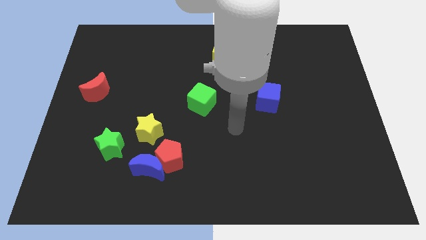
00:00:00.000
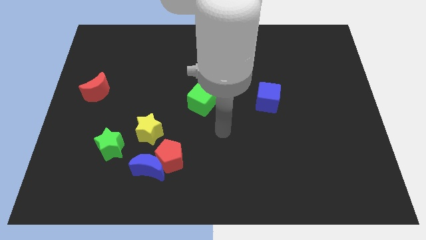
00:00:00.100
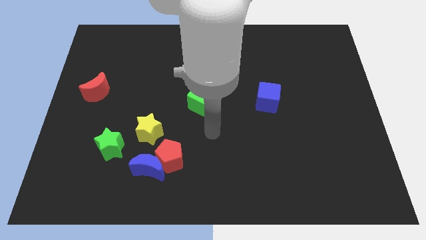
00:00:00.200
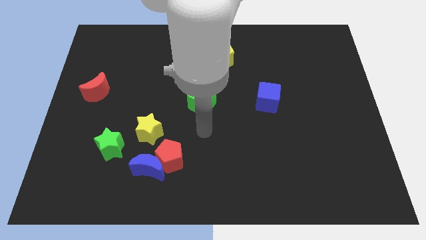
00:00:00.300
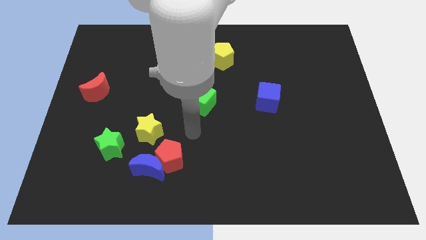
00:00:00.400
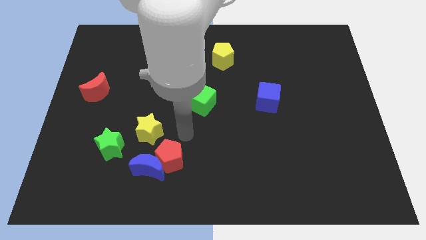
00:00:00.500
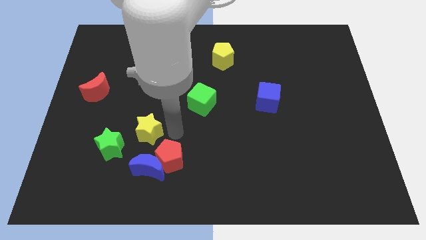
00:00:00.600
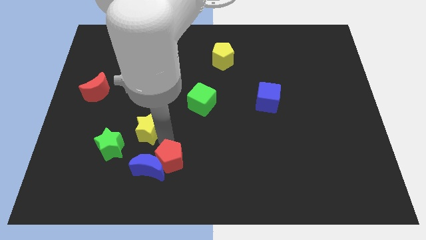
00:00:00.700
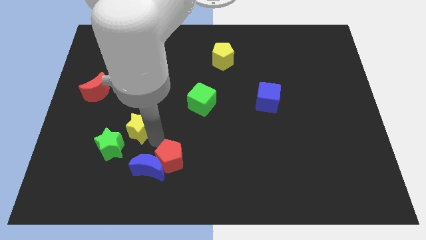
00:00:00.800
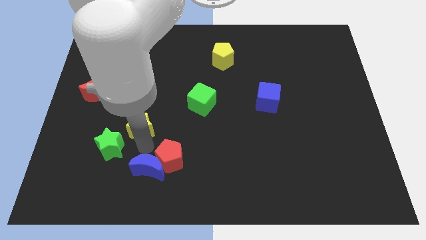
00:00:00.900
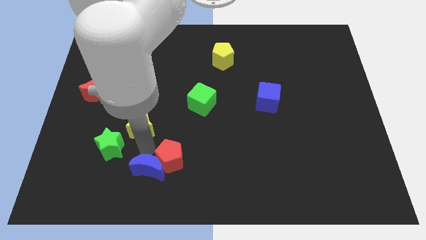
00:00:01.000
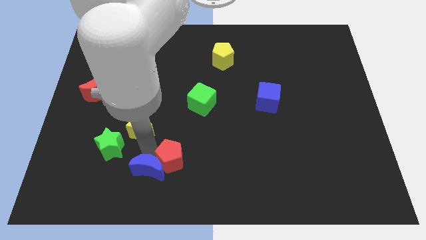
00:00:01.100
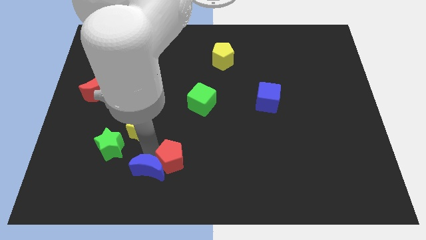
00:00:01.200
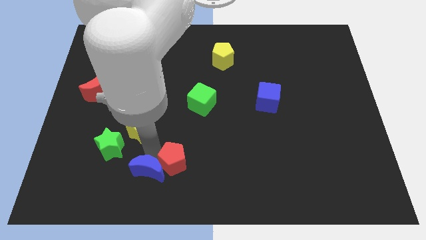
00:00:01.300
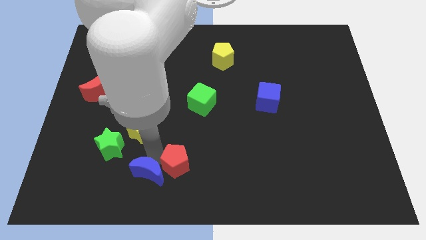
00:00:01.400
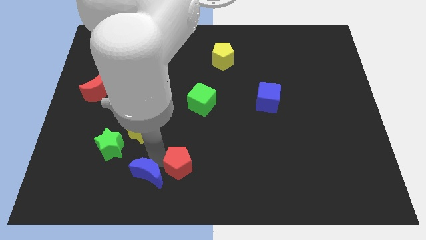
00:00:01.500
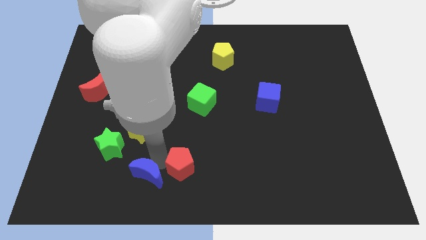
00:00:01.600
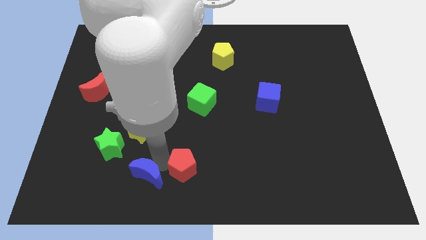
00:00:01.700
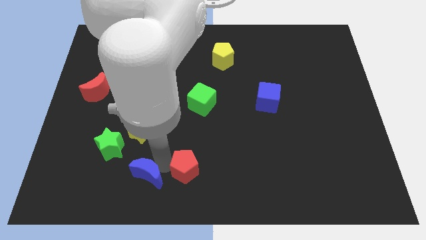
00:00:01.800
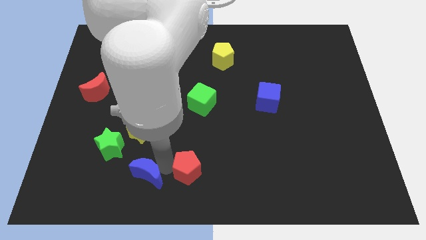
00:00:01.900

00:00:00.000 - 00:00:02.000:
move the red pentagon away from the blue moon and yellow star

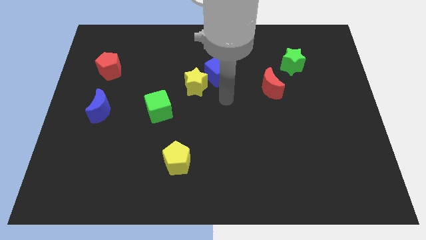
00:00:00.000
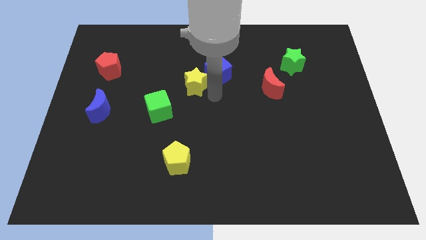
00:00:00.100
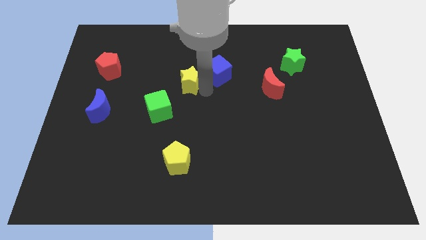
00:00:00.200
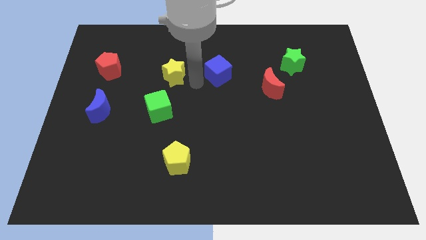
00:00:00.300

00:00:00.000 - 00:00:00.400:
separate the blue cube from the yellow star

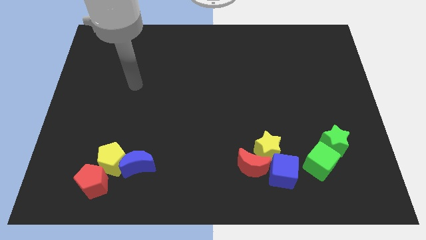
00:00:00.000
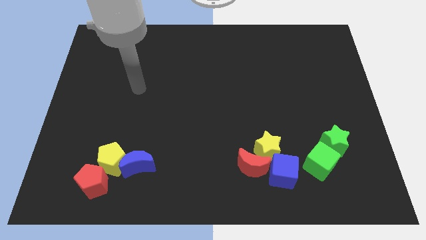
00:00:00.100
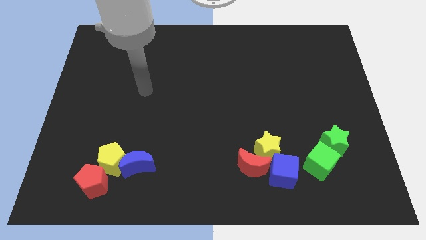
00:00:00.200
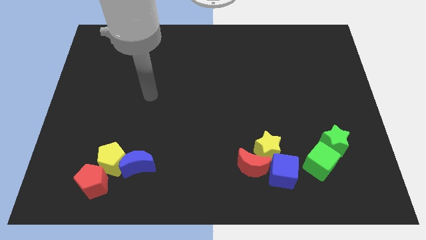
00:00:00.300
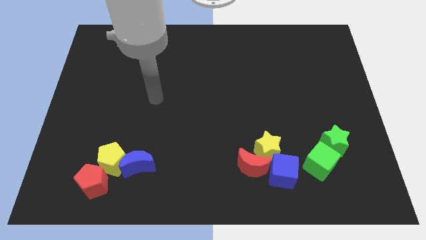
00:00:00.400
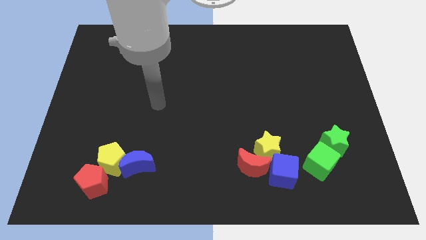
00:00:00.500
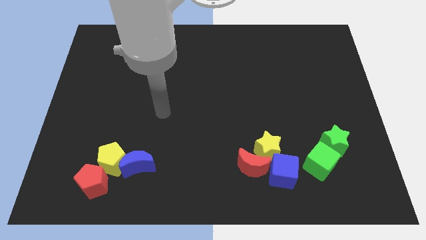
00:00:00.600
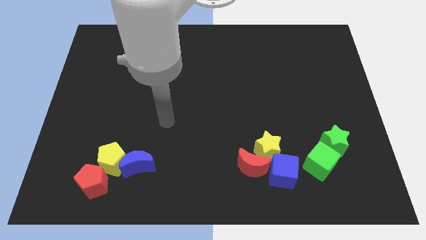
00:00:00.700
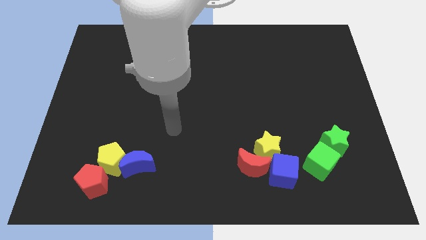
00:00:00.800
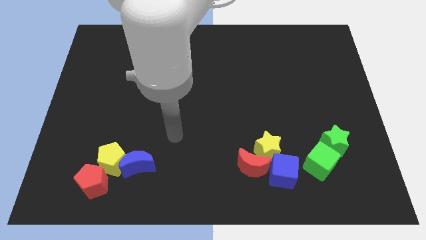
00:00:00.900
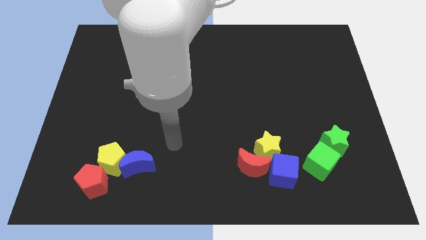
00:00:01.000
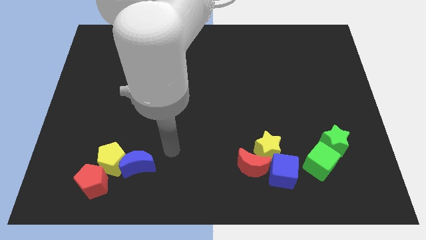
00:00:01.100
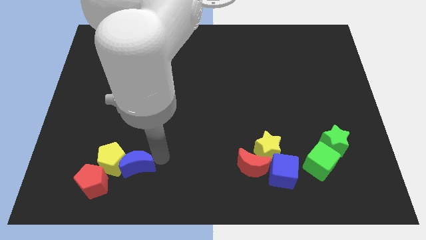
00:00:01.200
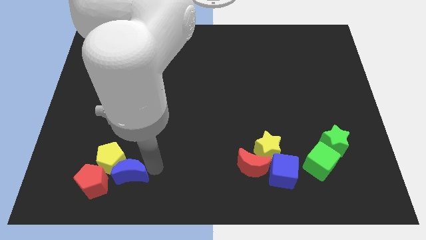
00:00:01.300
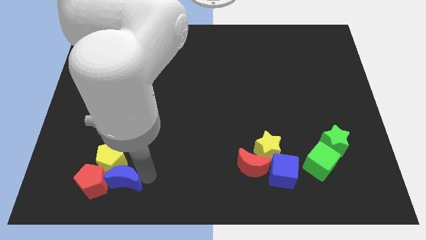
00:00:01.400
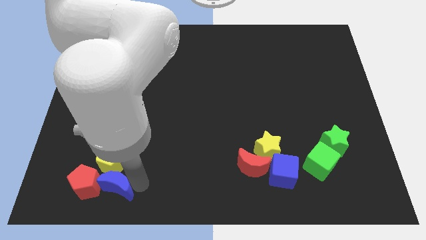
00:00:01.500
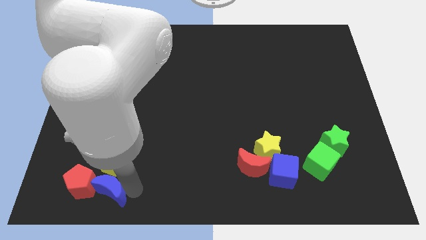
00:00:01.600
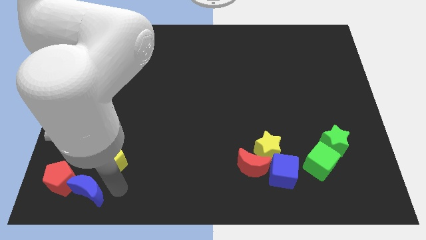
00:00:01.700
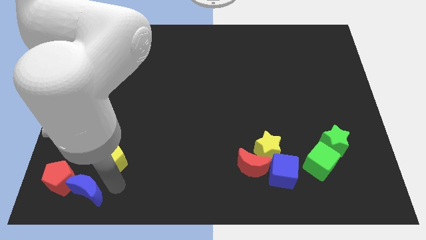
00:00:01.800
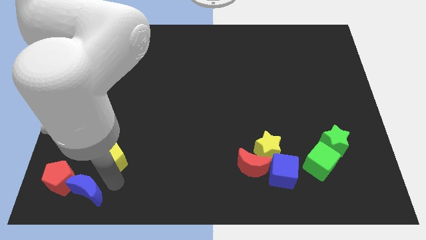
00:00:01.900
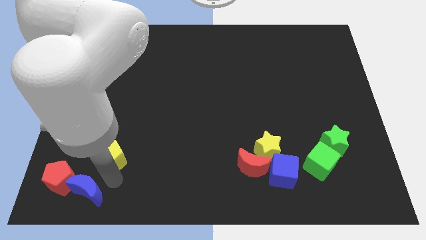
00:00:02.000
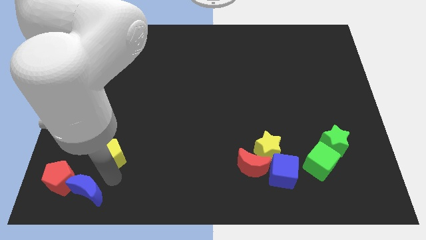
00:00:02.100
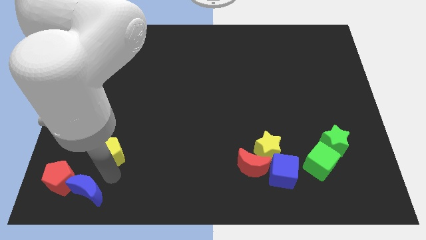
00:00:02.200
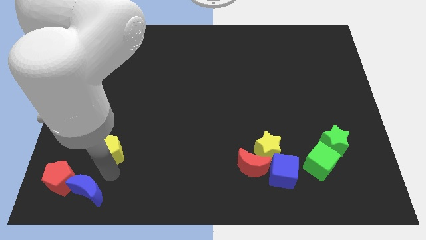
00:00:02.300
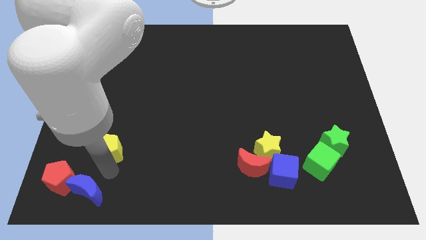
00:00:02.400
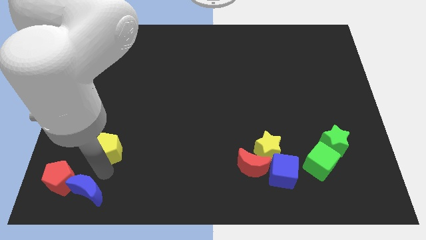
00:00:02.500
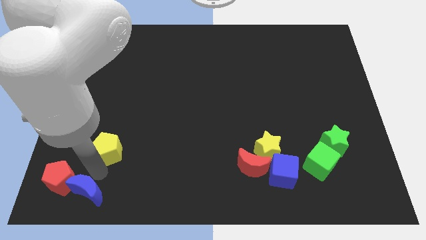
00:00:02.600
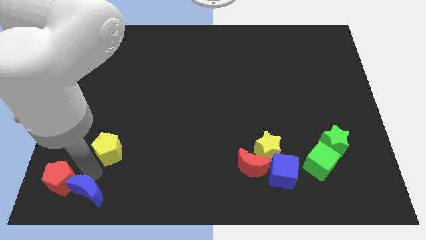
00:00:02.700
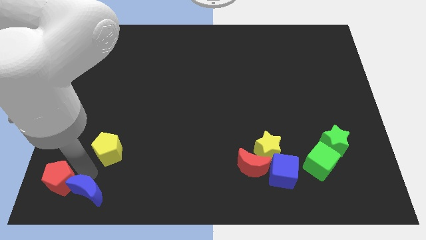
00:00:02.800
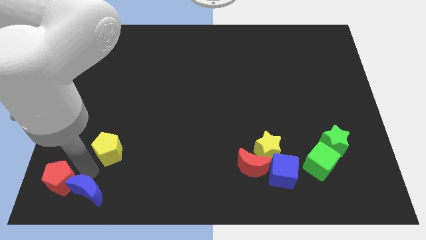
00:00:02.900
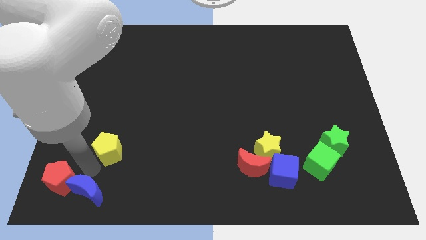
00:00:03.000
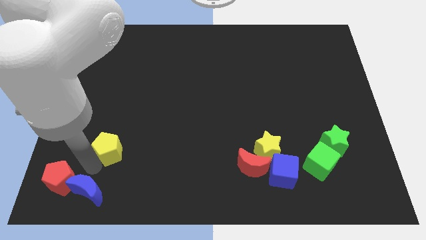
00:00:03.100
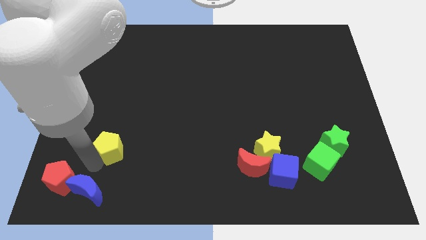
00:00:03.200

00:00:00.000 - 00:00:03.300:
move the yellow pentagon away from the blue moon and red pentagon

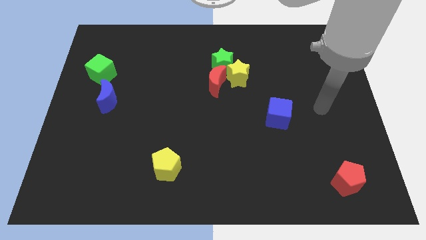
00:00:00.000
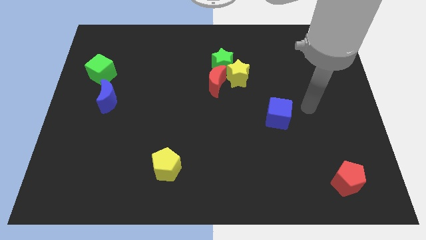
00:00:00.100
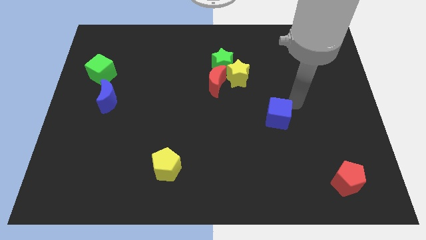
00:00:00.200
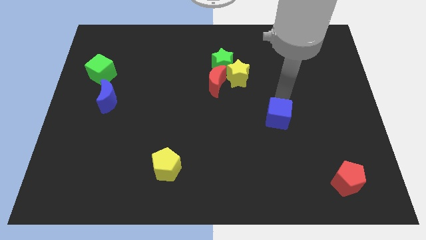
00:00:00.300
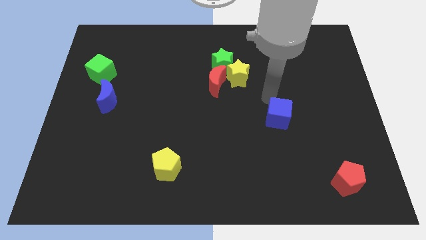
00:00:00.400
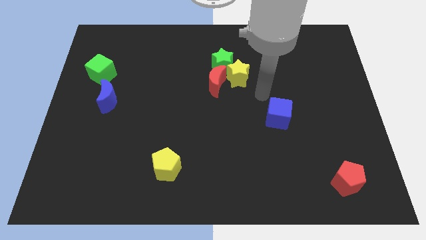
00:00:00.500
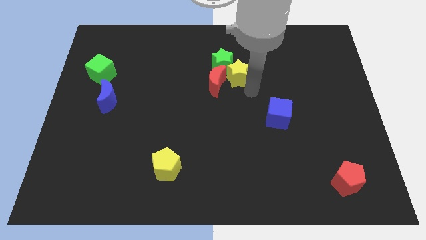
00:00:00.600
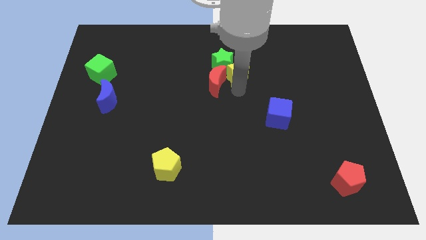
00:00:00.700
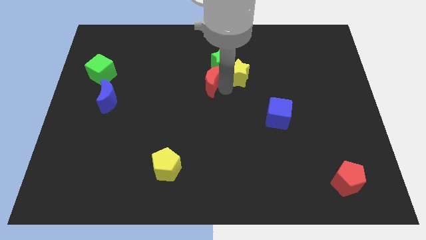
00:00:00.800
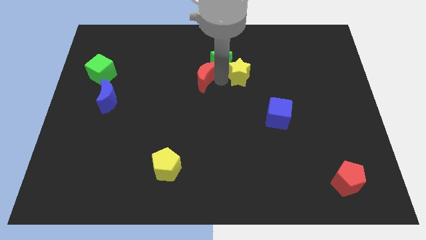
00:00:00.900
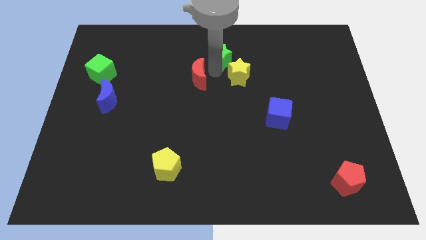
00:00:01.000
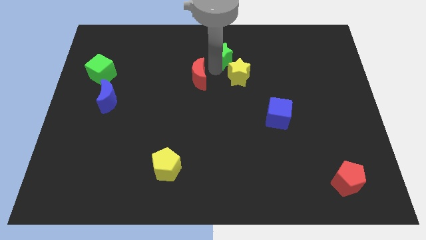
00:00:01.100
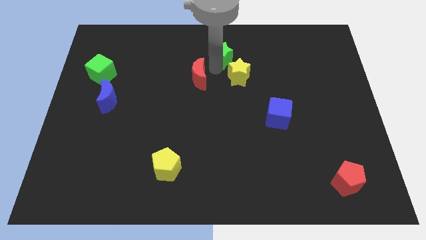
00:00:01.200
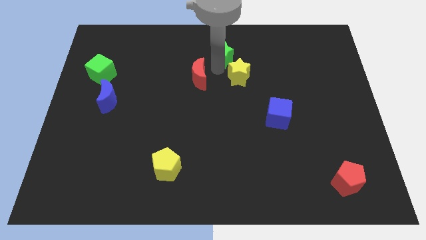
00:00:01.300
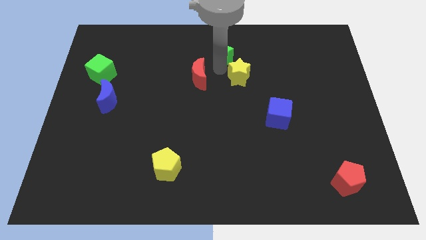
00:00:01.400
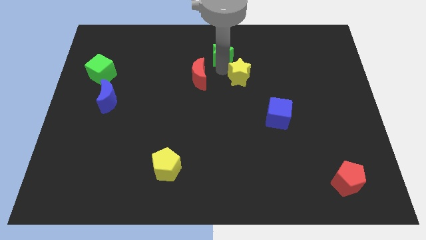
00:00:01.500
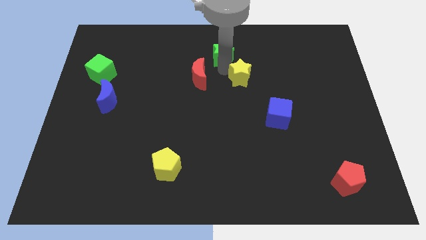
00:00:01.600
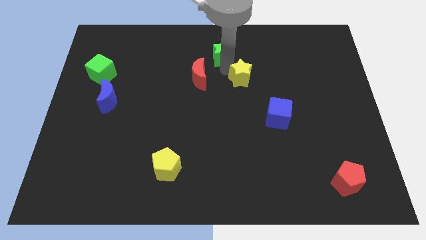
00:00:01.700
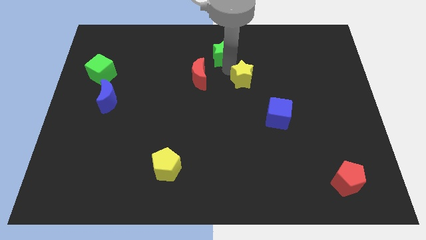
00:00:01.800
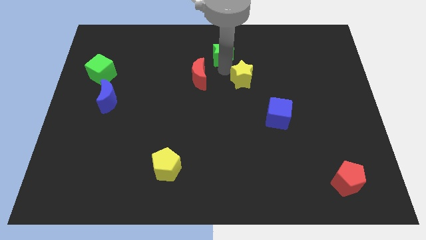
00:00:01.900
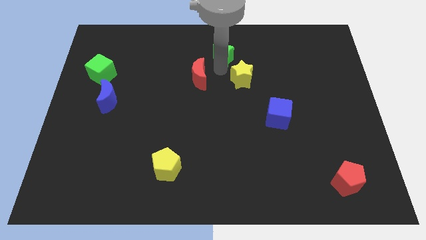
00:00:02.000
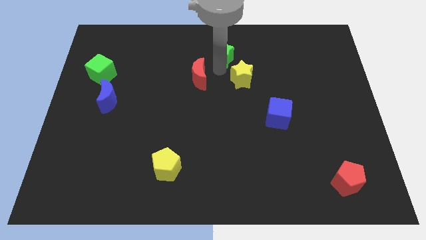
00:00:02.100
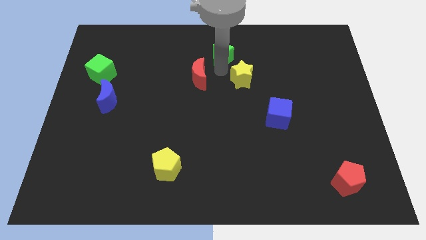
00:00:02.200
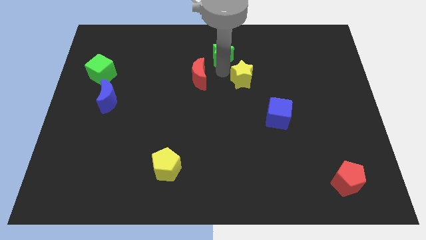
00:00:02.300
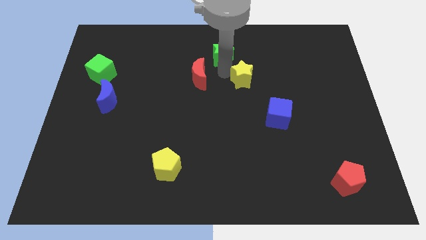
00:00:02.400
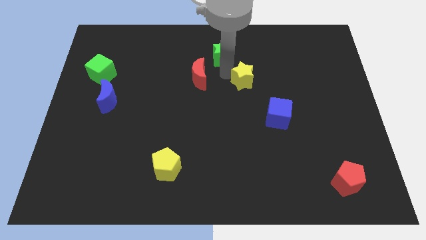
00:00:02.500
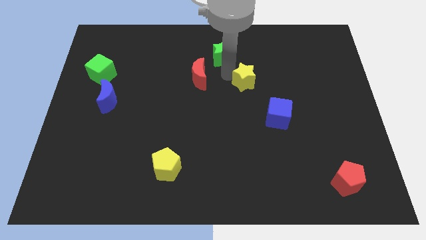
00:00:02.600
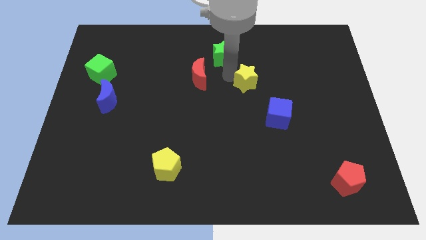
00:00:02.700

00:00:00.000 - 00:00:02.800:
separate the yellow star from the green star and red moon

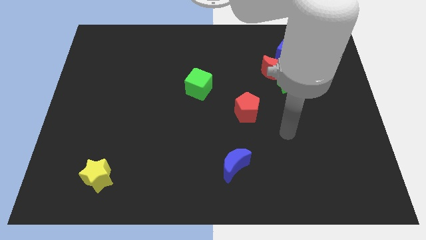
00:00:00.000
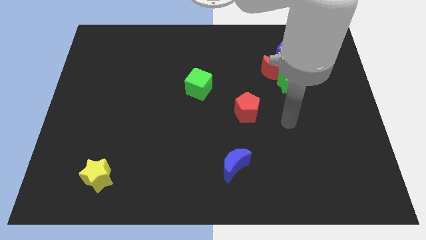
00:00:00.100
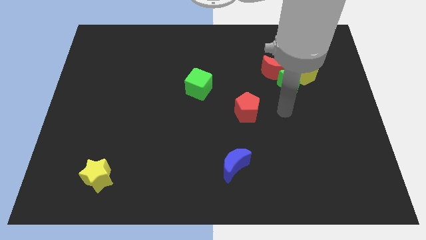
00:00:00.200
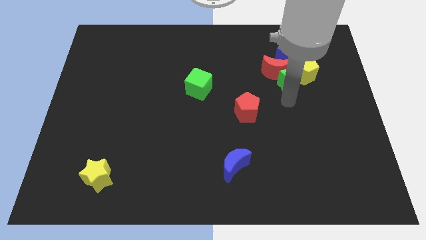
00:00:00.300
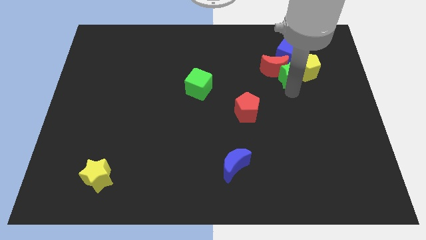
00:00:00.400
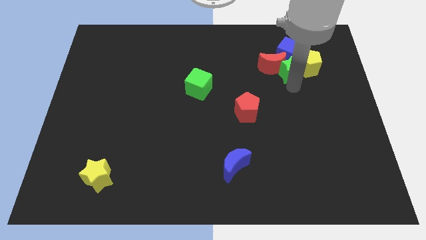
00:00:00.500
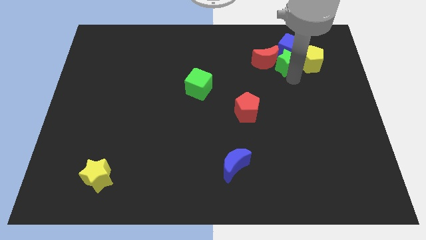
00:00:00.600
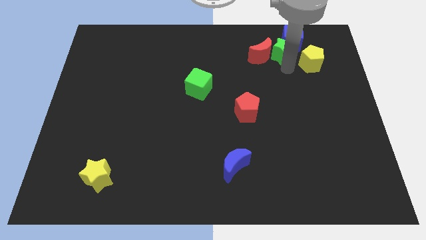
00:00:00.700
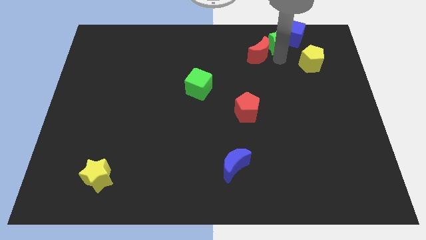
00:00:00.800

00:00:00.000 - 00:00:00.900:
pull the red moon apart from the green star, blue cube, and yellow pentagon
